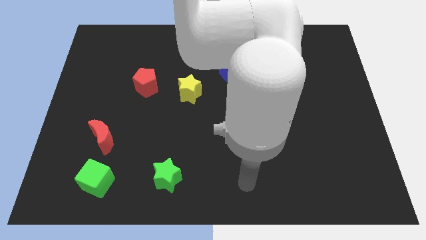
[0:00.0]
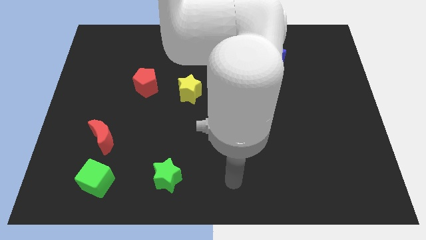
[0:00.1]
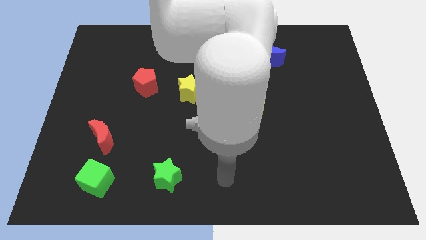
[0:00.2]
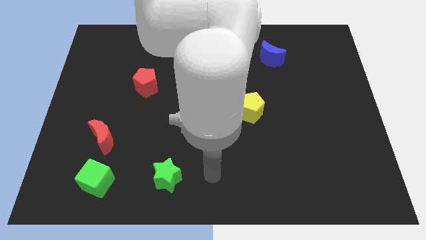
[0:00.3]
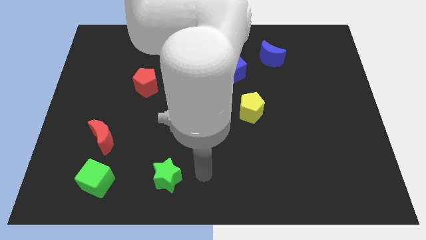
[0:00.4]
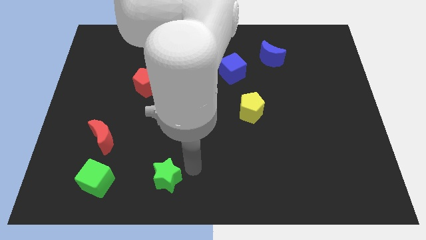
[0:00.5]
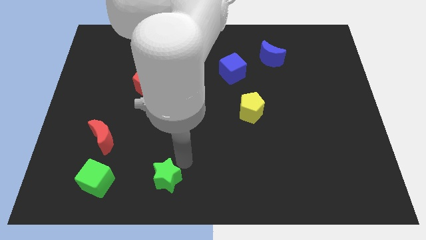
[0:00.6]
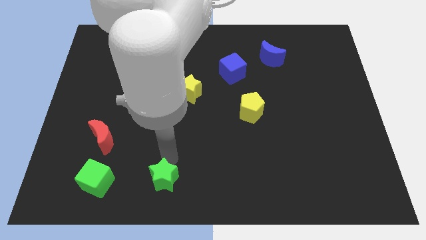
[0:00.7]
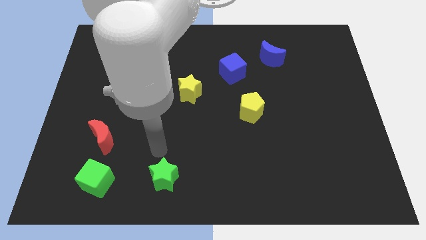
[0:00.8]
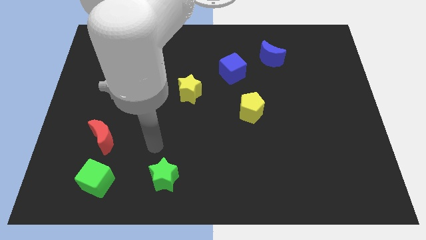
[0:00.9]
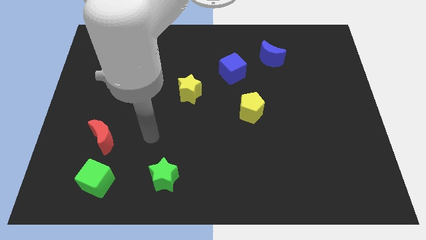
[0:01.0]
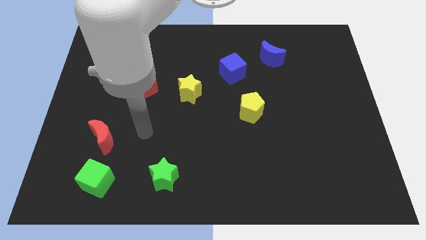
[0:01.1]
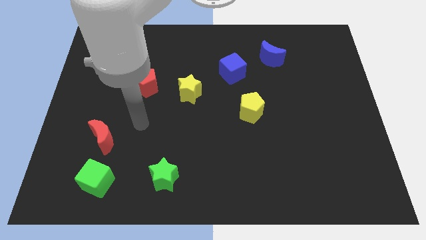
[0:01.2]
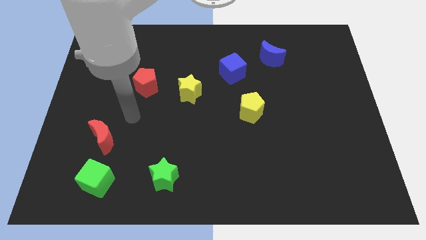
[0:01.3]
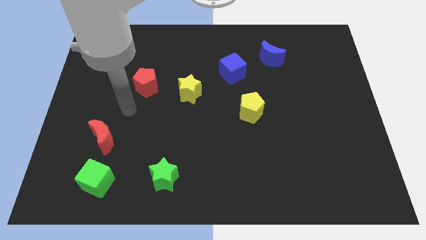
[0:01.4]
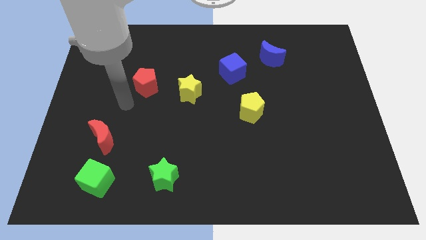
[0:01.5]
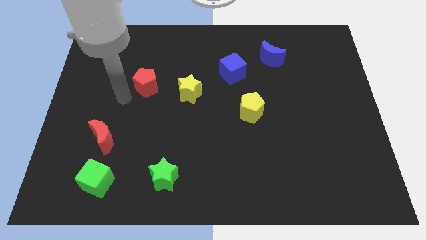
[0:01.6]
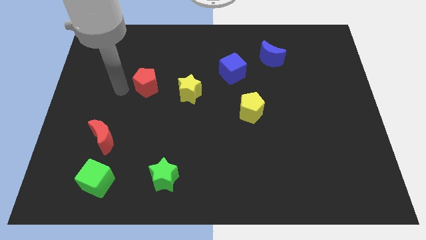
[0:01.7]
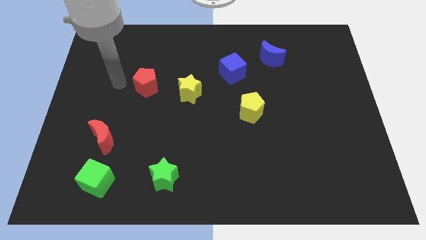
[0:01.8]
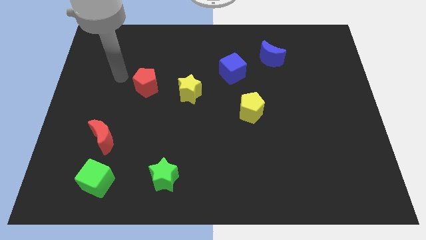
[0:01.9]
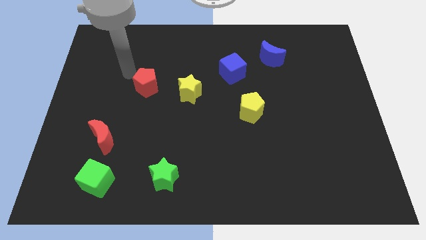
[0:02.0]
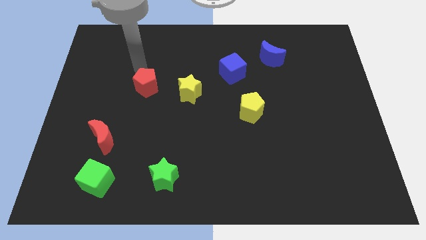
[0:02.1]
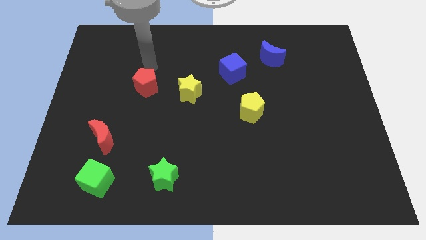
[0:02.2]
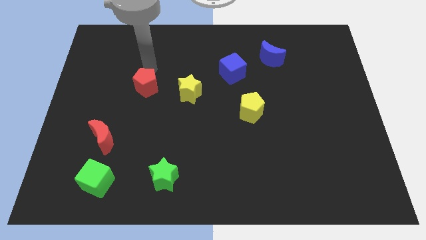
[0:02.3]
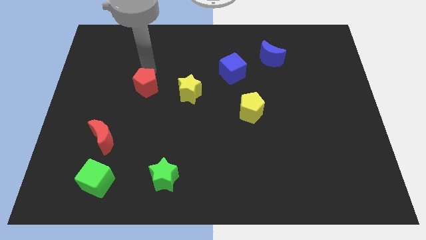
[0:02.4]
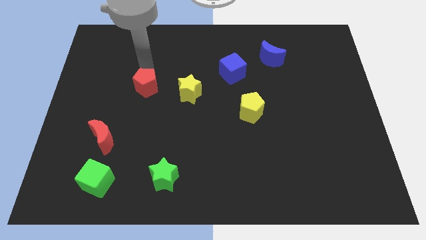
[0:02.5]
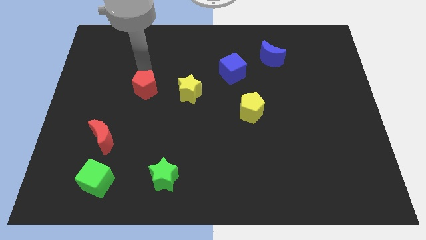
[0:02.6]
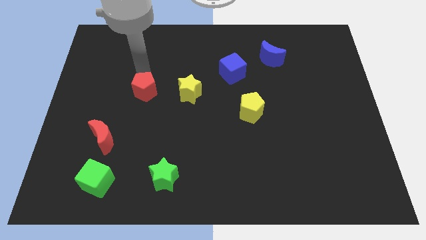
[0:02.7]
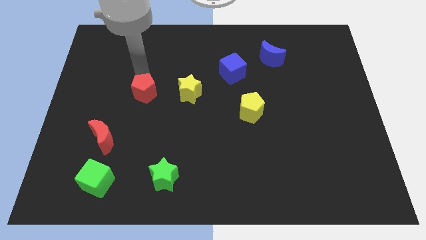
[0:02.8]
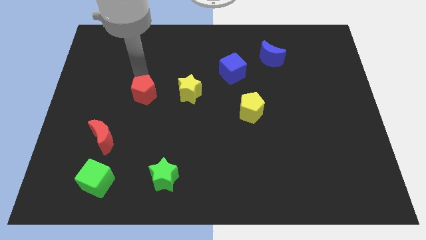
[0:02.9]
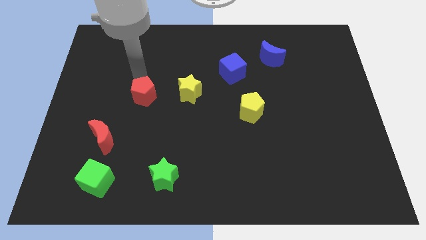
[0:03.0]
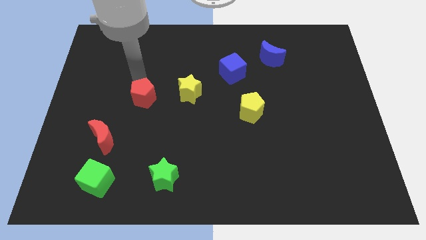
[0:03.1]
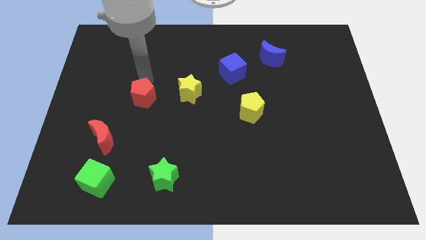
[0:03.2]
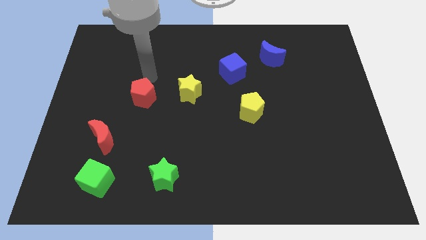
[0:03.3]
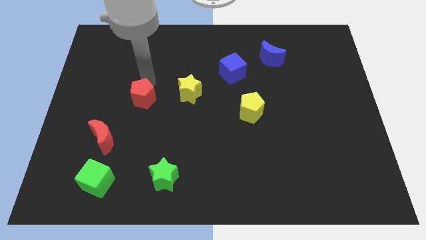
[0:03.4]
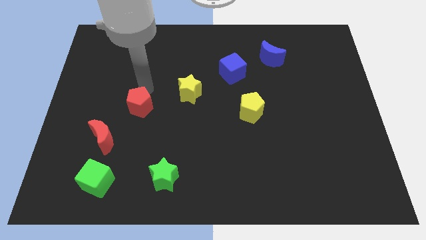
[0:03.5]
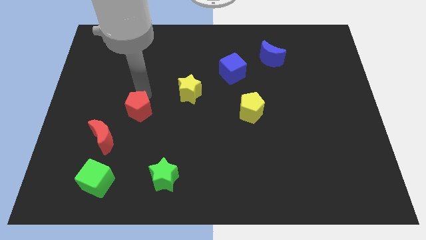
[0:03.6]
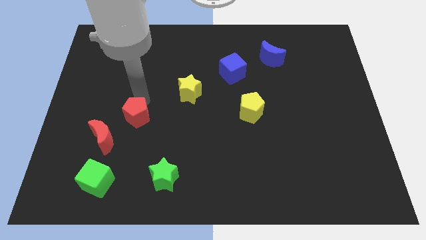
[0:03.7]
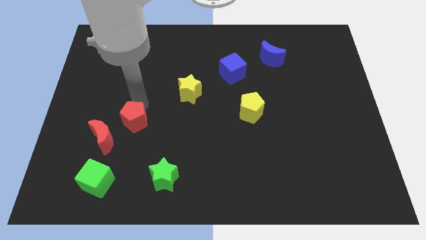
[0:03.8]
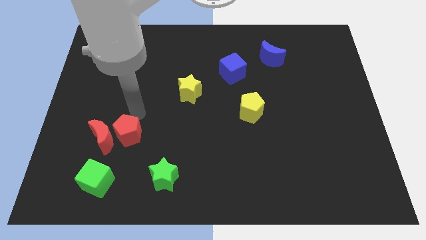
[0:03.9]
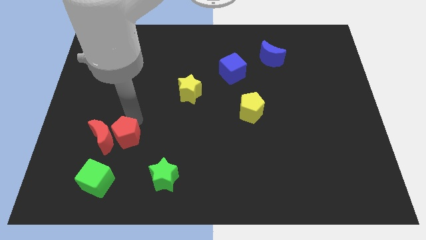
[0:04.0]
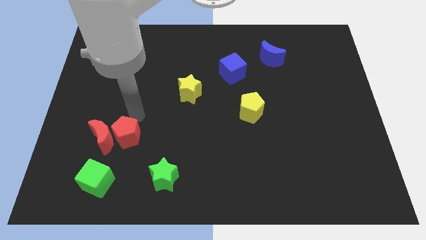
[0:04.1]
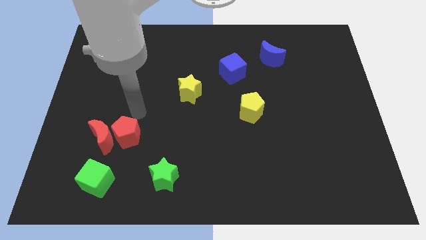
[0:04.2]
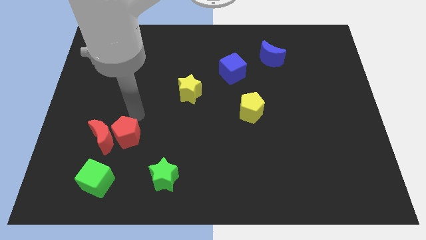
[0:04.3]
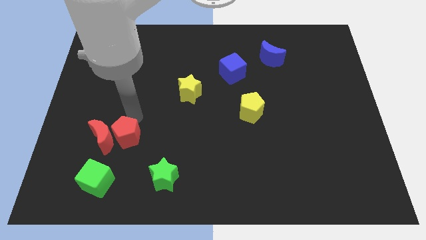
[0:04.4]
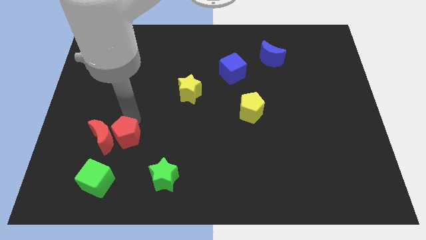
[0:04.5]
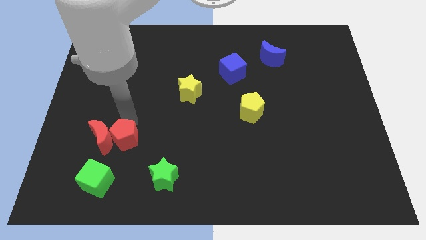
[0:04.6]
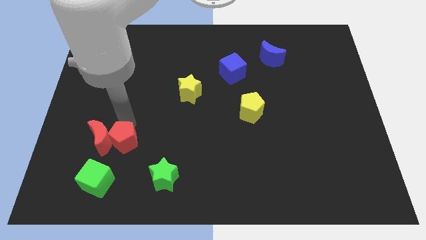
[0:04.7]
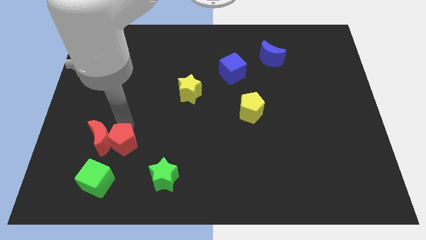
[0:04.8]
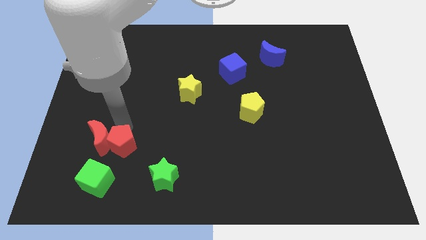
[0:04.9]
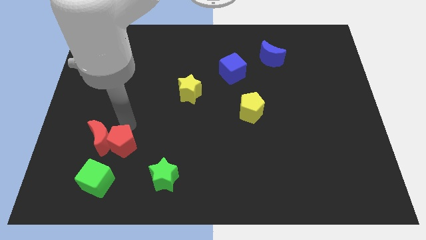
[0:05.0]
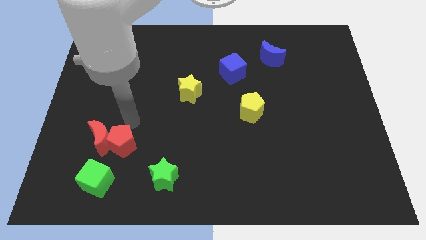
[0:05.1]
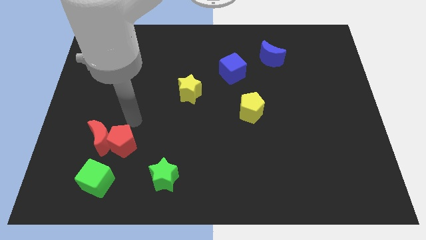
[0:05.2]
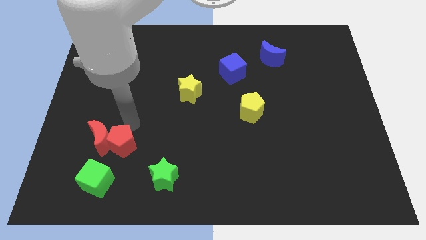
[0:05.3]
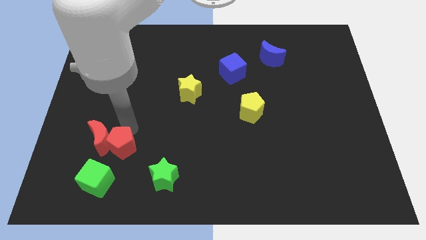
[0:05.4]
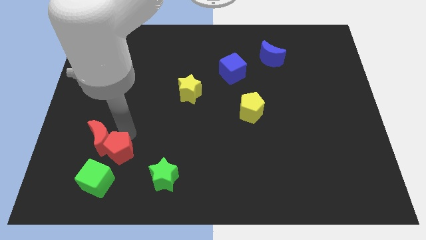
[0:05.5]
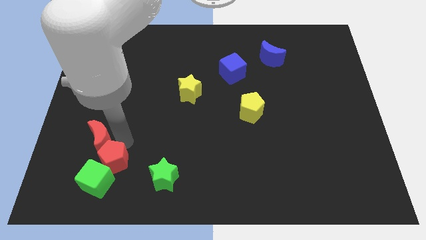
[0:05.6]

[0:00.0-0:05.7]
slide the red pentagon towards the green cube

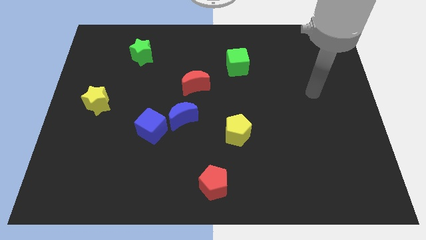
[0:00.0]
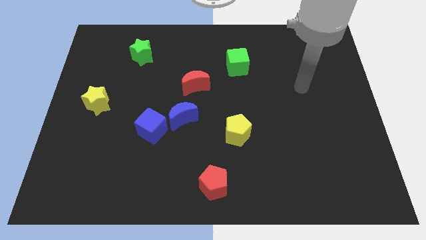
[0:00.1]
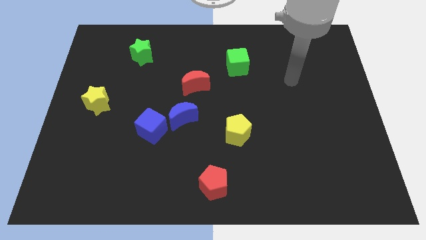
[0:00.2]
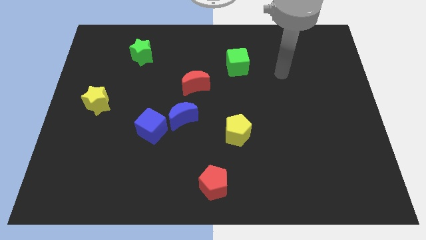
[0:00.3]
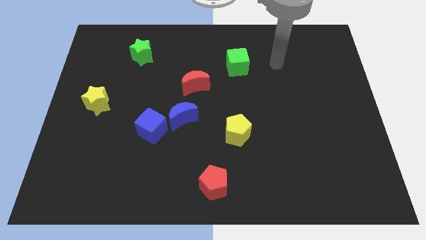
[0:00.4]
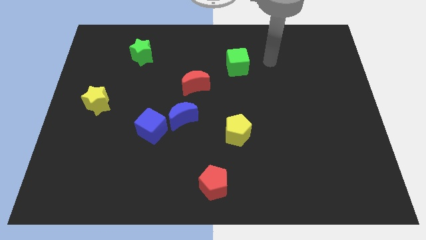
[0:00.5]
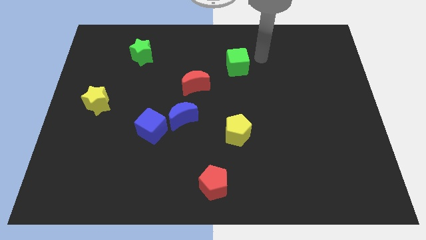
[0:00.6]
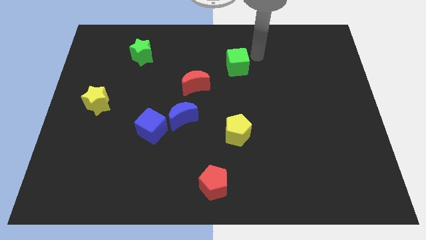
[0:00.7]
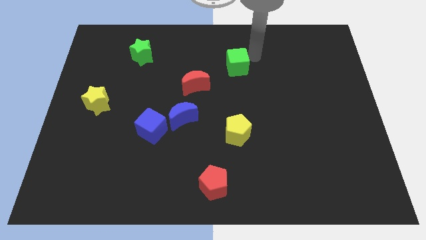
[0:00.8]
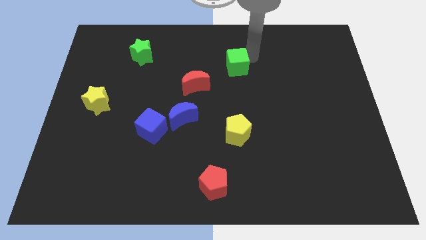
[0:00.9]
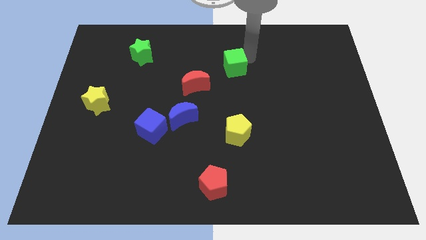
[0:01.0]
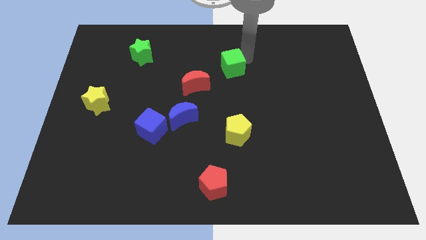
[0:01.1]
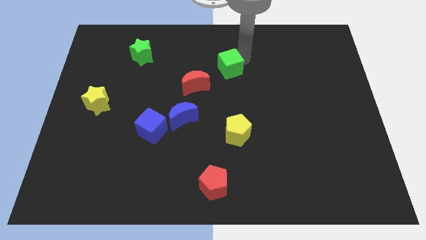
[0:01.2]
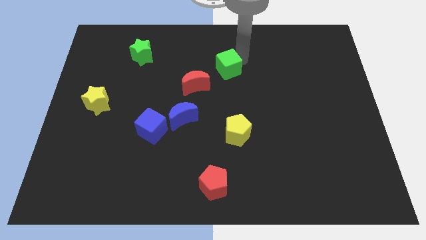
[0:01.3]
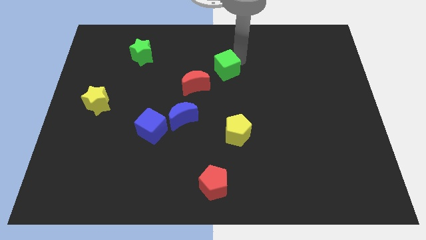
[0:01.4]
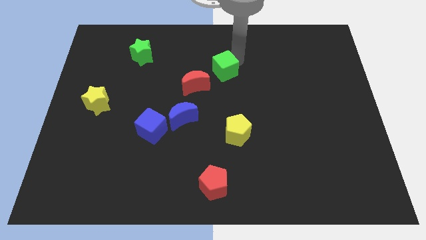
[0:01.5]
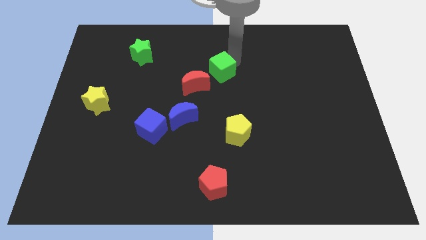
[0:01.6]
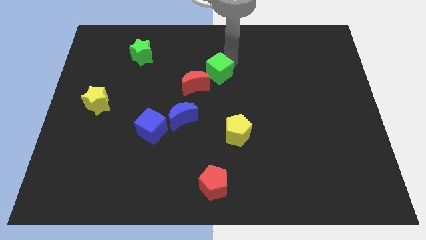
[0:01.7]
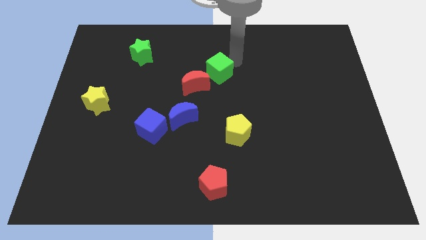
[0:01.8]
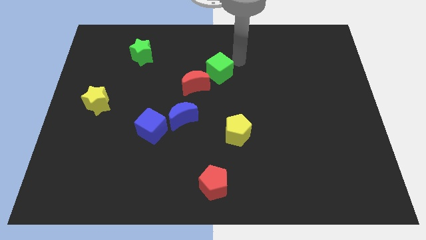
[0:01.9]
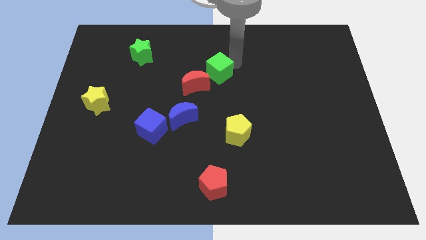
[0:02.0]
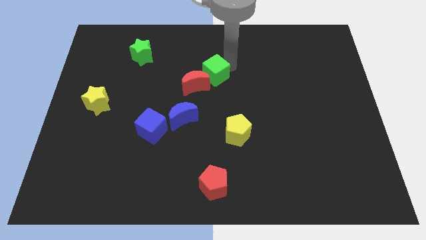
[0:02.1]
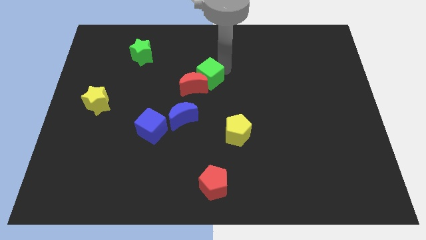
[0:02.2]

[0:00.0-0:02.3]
put the green cube to the red moon
